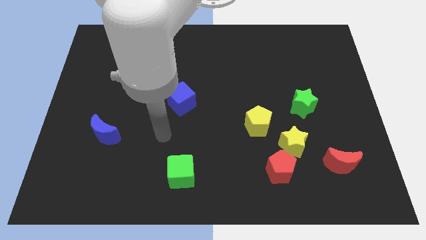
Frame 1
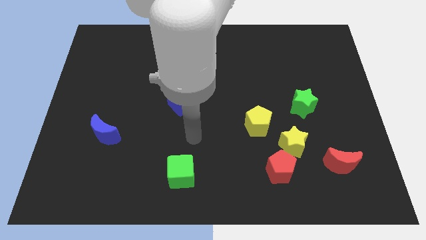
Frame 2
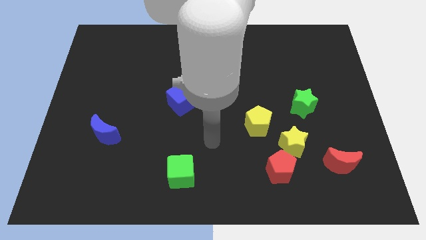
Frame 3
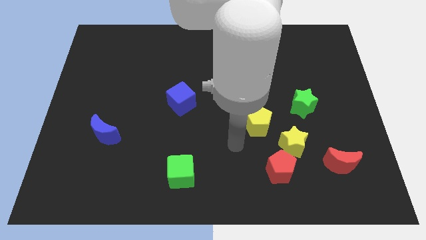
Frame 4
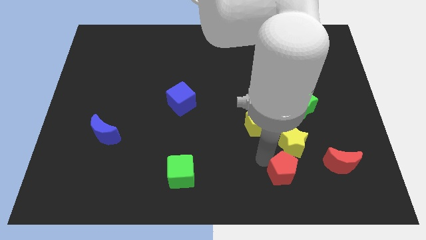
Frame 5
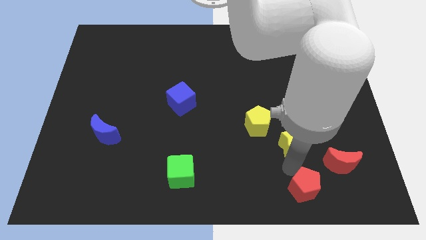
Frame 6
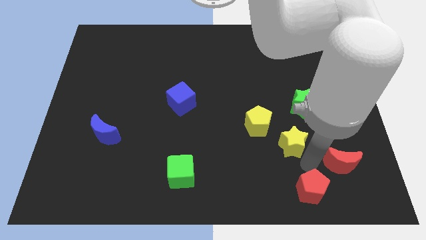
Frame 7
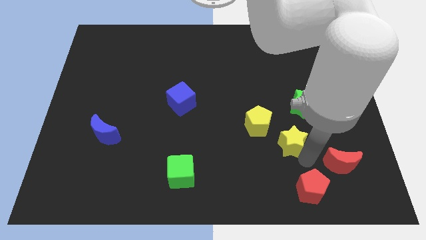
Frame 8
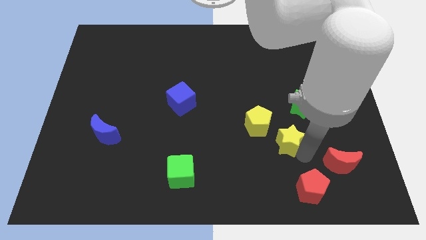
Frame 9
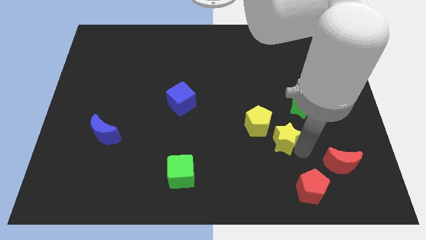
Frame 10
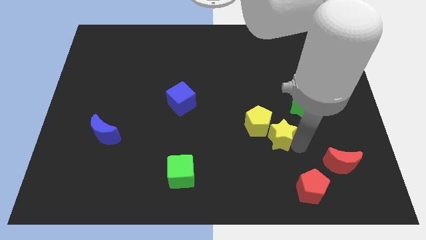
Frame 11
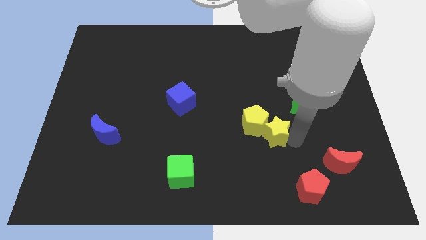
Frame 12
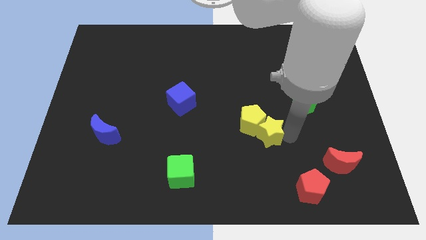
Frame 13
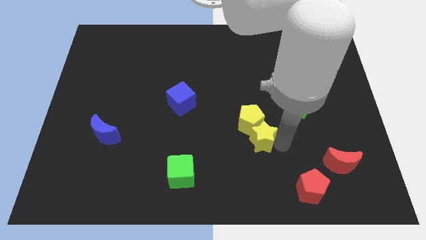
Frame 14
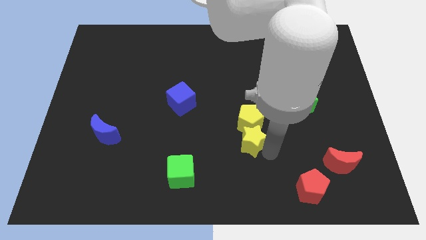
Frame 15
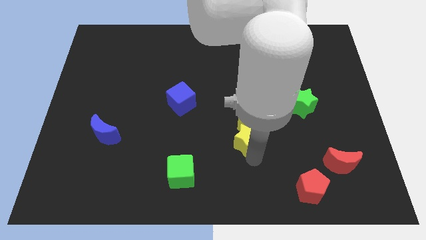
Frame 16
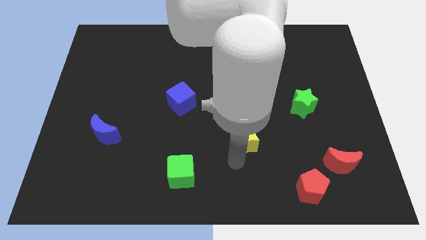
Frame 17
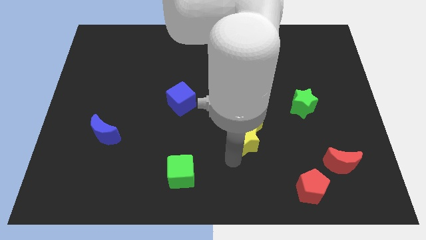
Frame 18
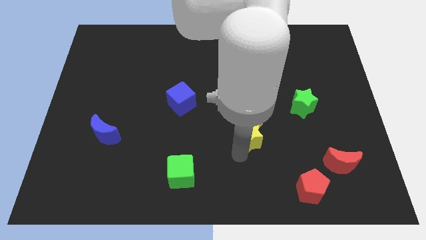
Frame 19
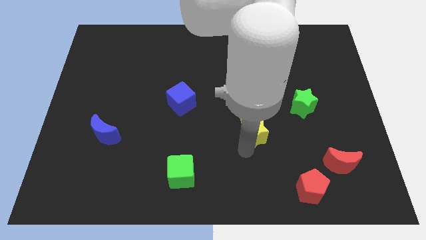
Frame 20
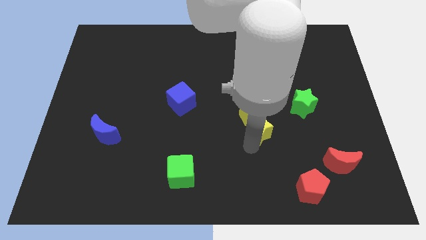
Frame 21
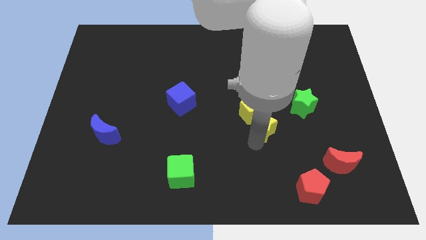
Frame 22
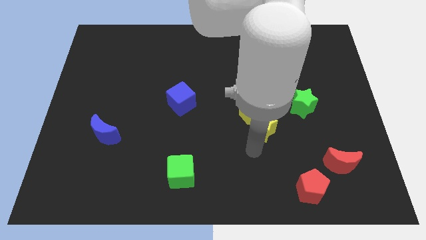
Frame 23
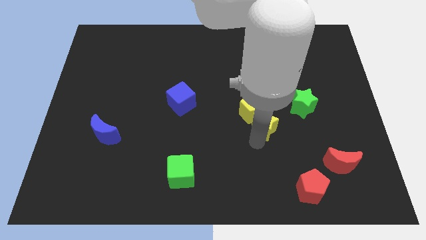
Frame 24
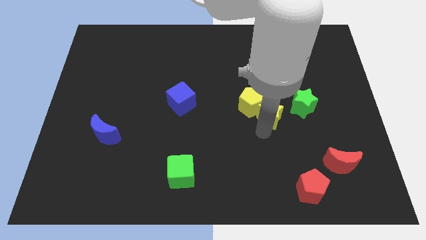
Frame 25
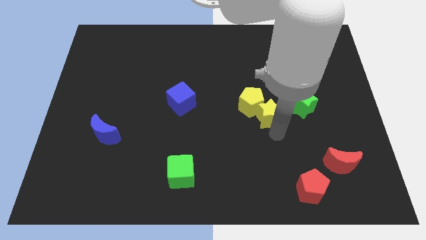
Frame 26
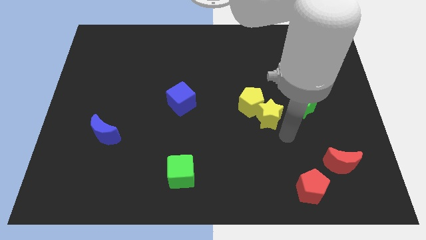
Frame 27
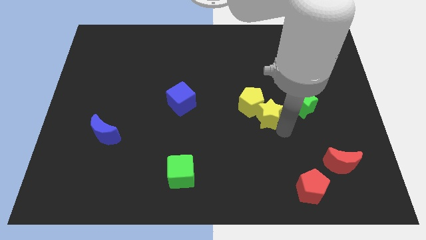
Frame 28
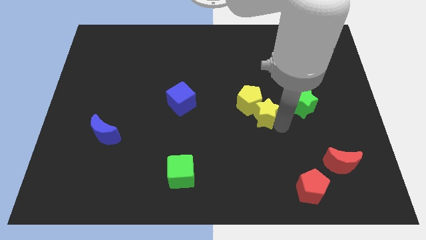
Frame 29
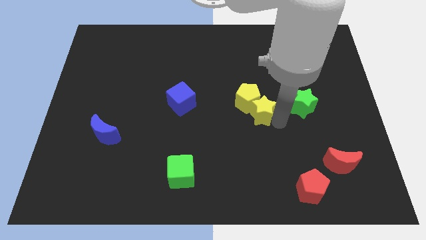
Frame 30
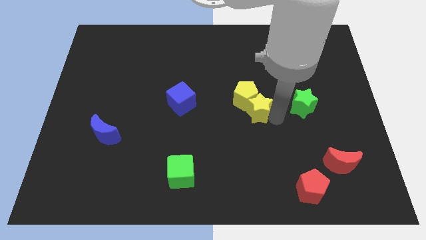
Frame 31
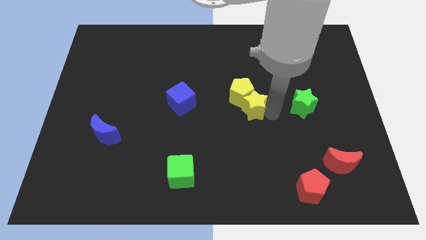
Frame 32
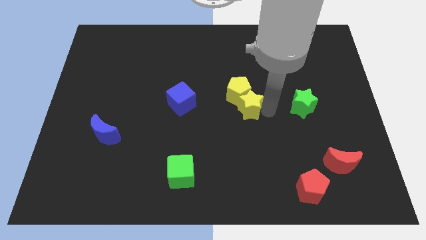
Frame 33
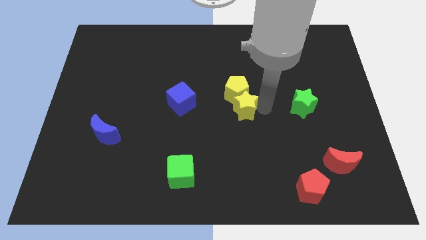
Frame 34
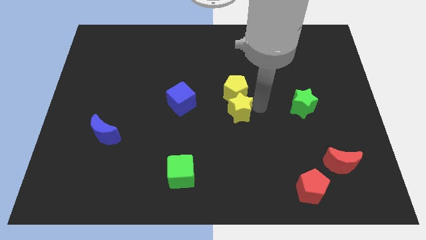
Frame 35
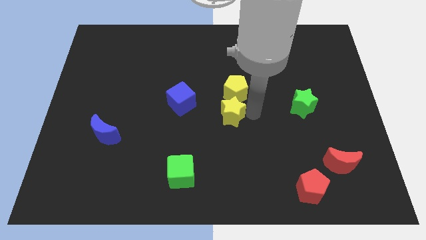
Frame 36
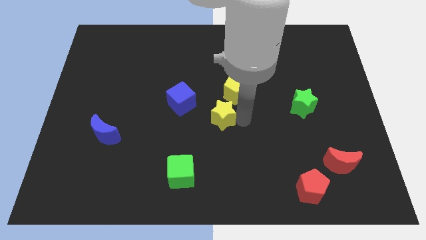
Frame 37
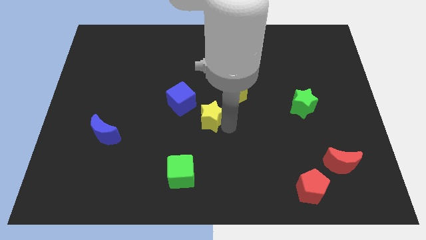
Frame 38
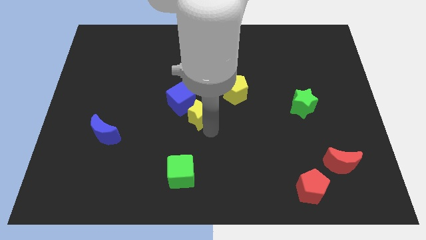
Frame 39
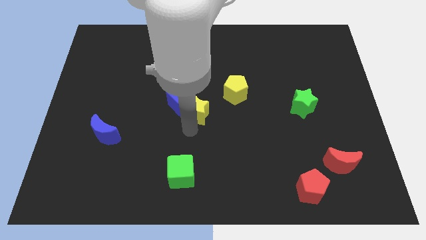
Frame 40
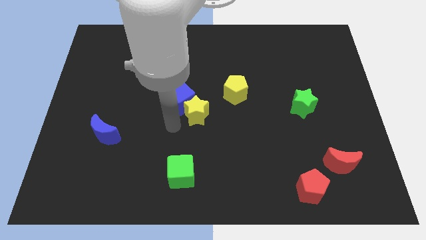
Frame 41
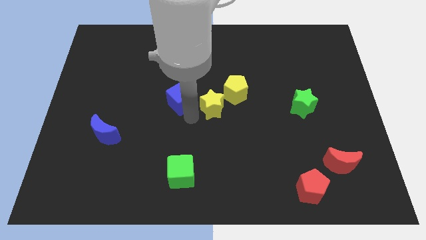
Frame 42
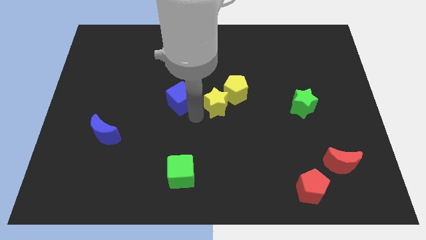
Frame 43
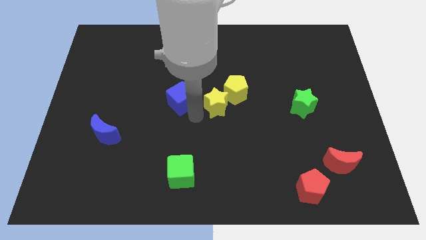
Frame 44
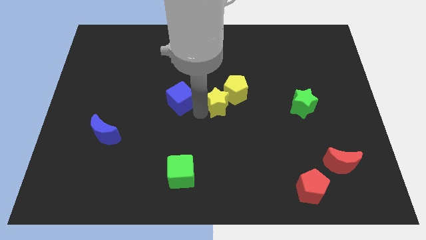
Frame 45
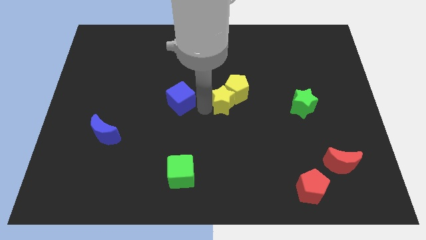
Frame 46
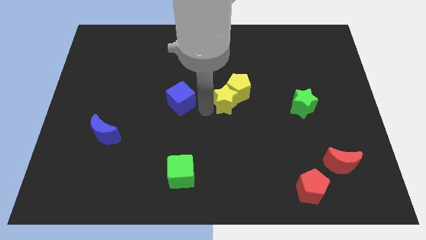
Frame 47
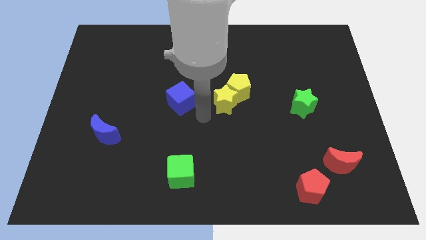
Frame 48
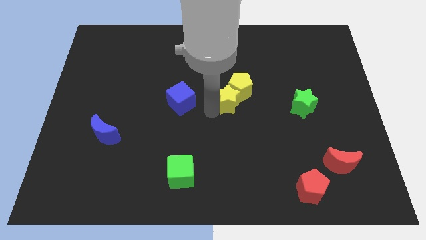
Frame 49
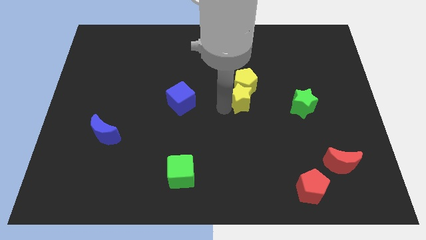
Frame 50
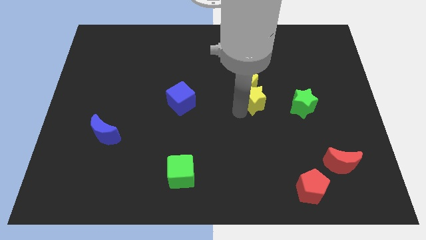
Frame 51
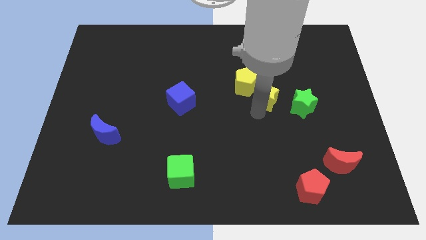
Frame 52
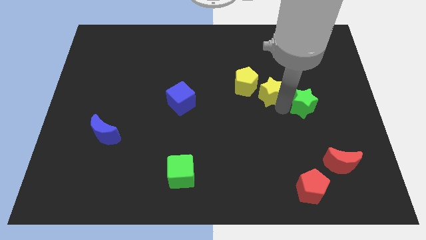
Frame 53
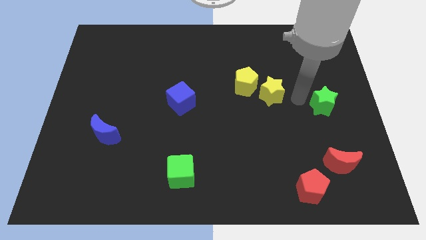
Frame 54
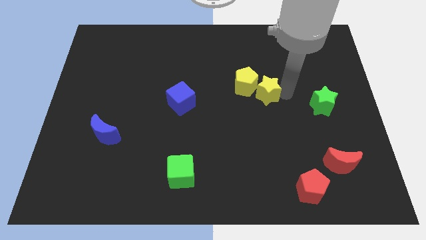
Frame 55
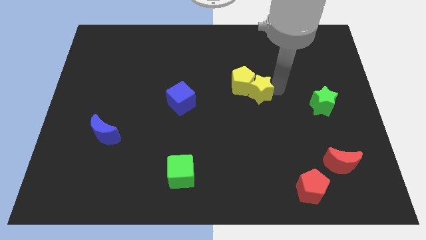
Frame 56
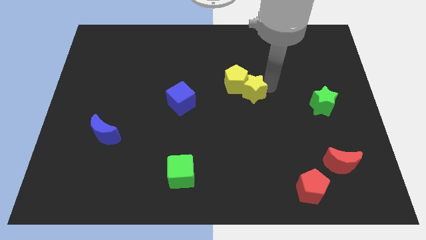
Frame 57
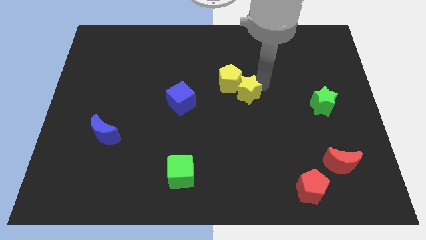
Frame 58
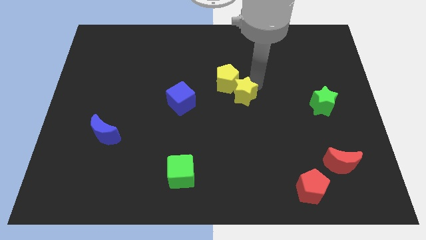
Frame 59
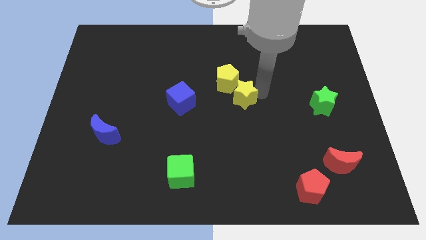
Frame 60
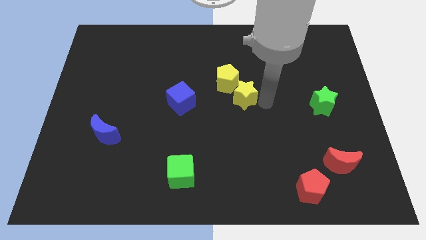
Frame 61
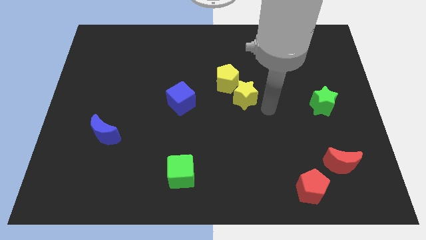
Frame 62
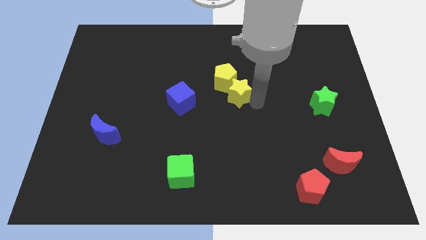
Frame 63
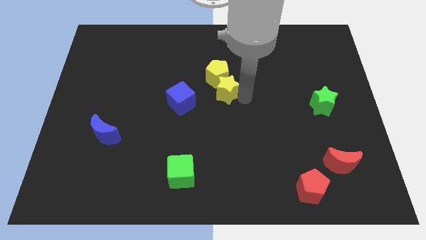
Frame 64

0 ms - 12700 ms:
push the yellow star diagonally upwards and to the left

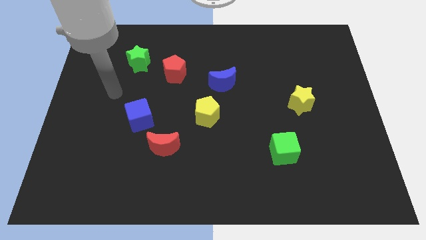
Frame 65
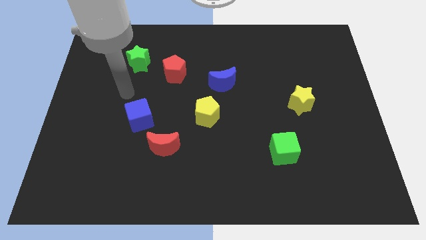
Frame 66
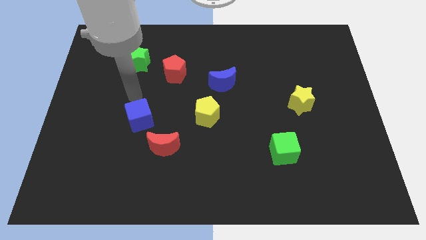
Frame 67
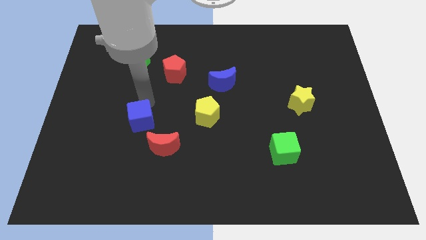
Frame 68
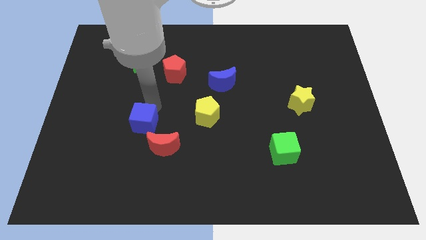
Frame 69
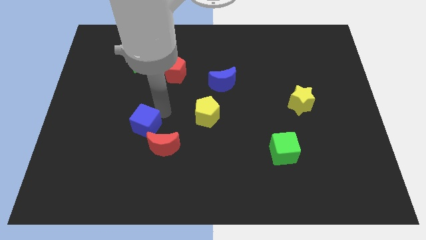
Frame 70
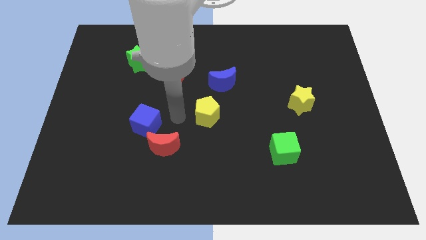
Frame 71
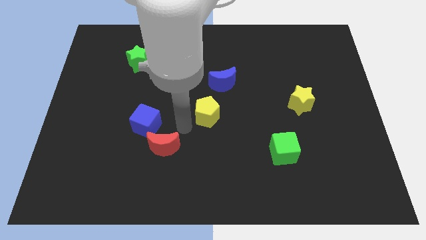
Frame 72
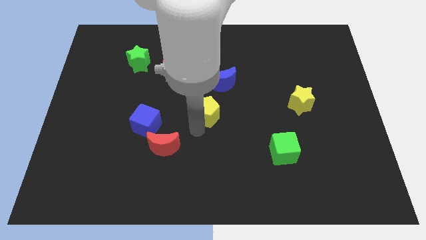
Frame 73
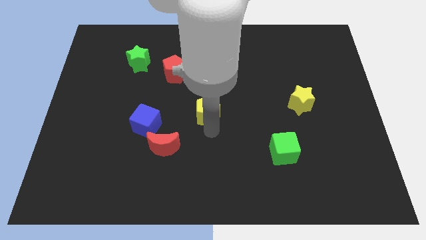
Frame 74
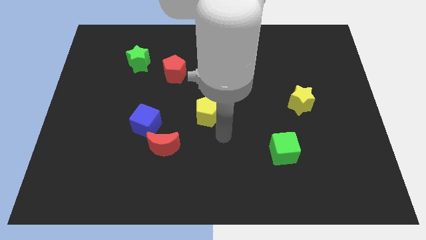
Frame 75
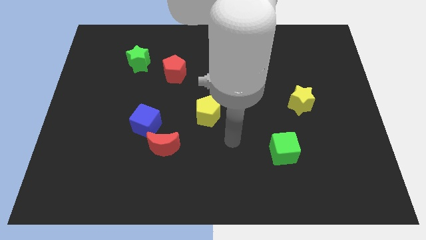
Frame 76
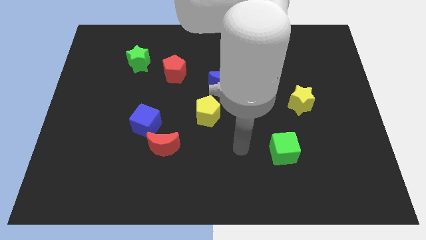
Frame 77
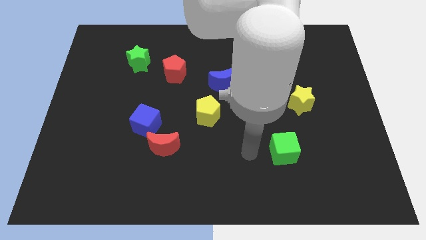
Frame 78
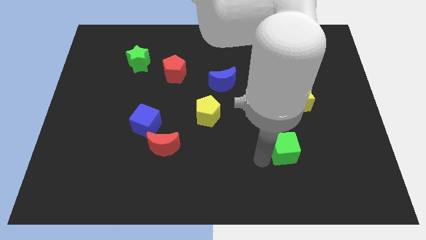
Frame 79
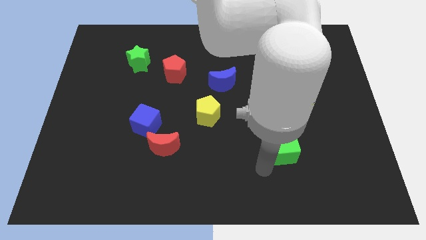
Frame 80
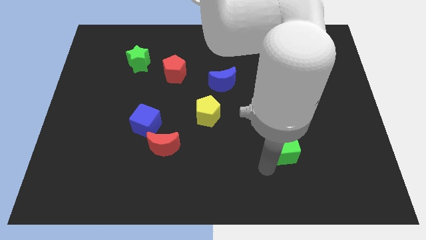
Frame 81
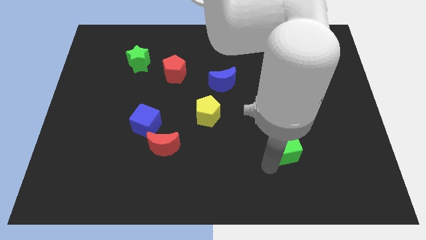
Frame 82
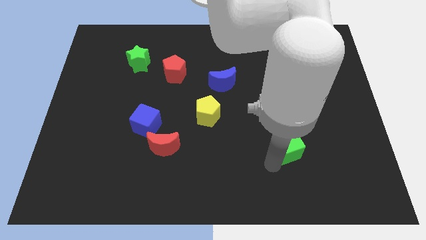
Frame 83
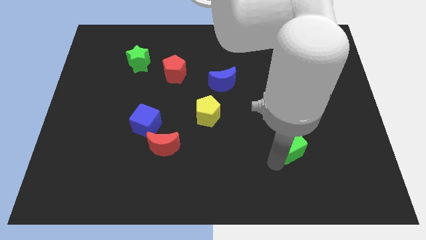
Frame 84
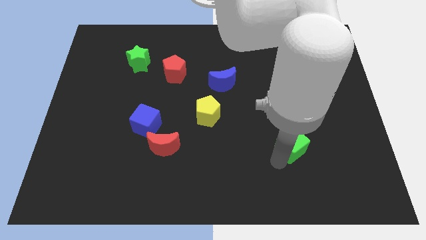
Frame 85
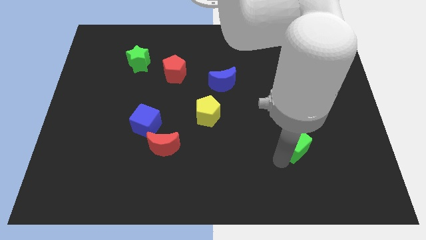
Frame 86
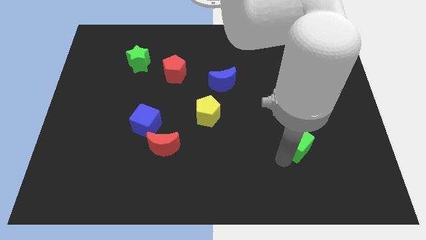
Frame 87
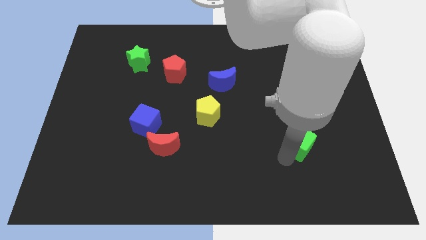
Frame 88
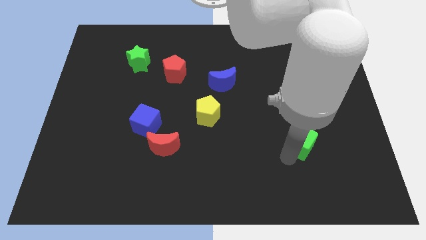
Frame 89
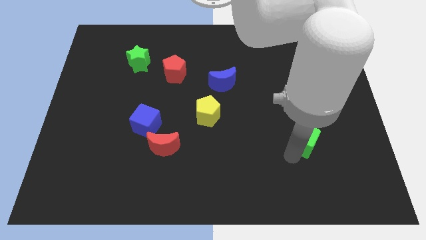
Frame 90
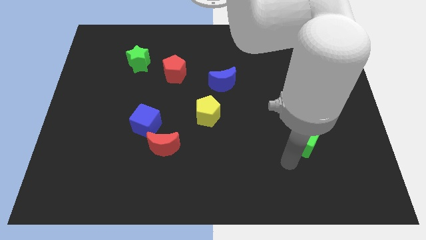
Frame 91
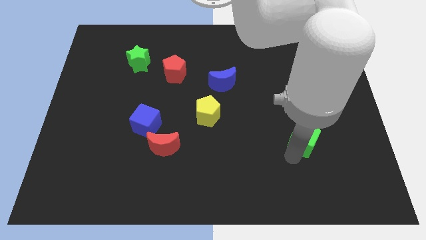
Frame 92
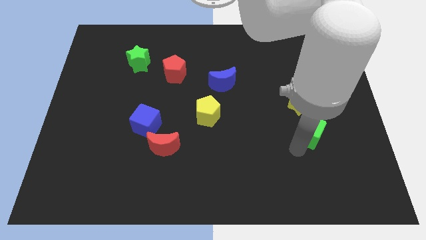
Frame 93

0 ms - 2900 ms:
slide the green cube up and then to the right a little bit
